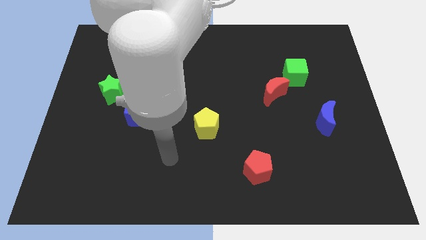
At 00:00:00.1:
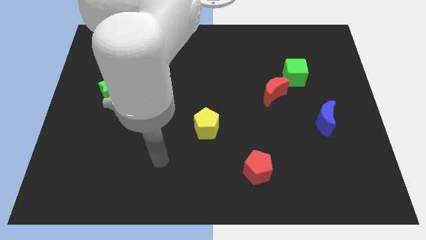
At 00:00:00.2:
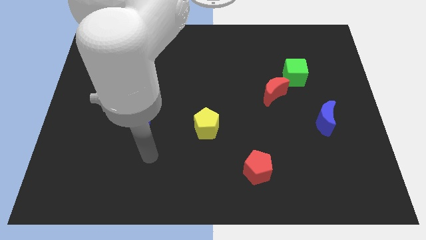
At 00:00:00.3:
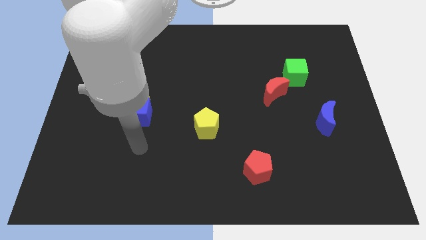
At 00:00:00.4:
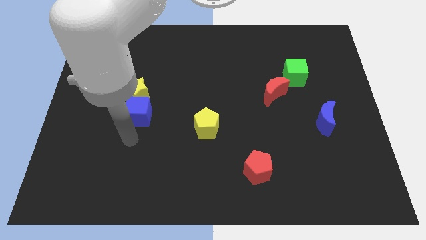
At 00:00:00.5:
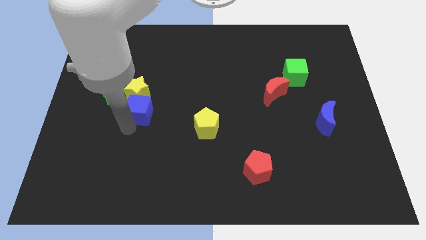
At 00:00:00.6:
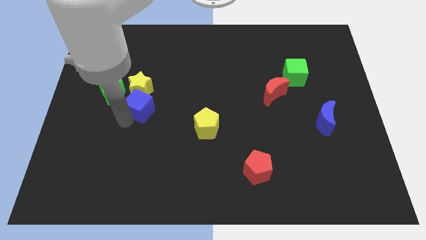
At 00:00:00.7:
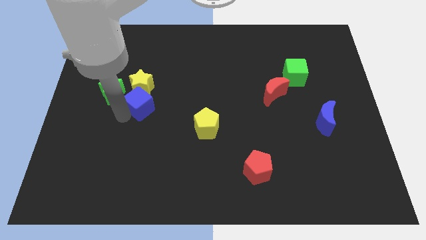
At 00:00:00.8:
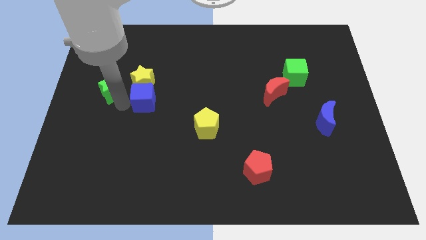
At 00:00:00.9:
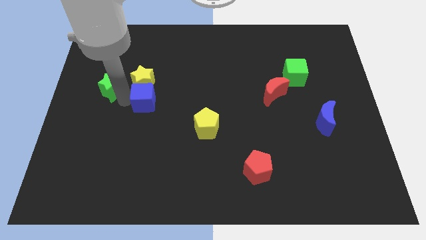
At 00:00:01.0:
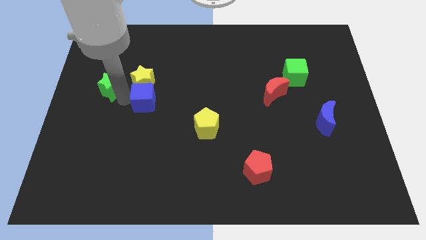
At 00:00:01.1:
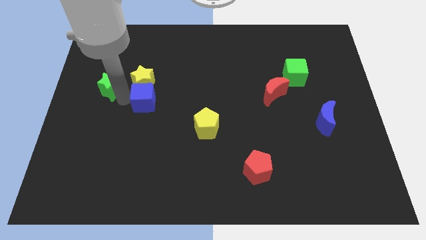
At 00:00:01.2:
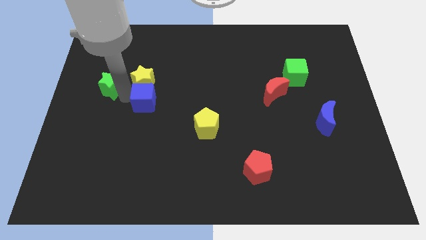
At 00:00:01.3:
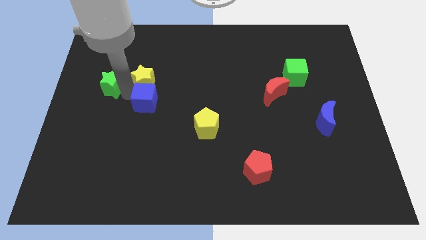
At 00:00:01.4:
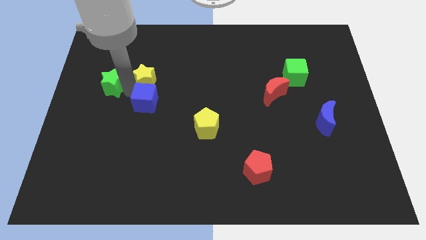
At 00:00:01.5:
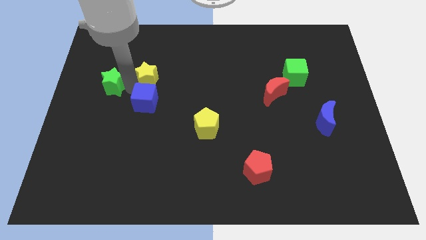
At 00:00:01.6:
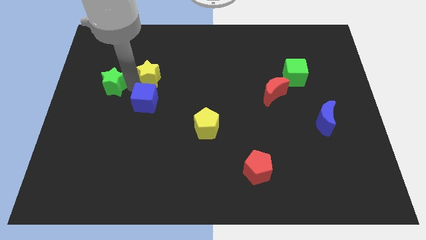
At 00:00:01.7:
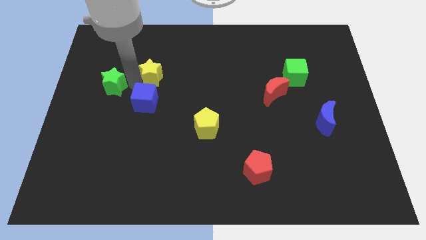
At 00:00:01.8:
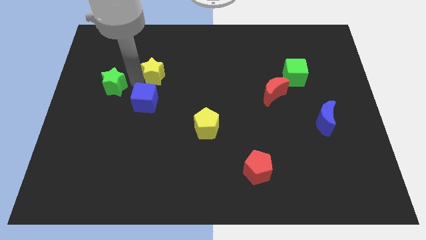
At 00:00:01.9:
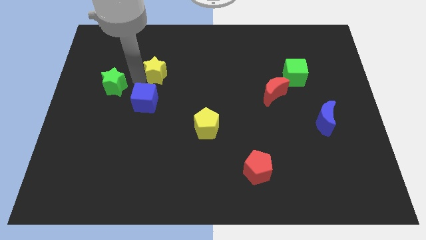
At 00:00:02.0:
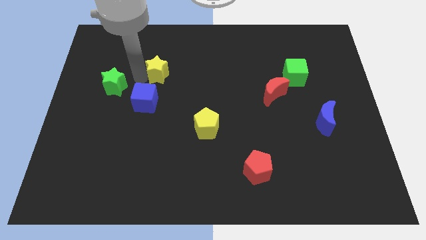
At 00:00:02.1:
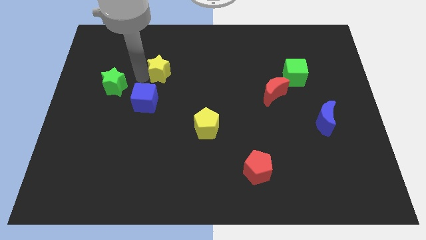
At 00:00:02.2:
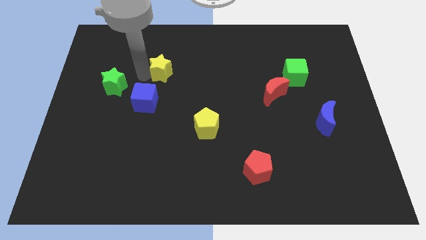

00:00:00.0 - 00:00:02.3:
move the yellow star away from the blue cube and green star

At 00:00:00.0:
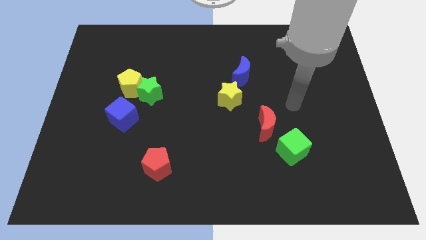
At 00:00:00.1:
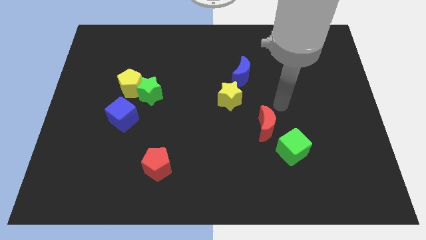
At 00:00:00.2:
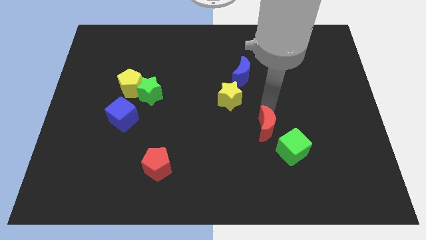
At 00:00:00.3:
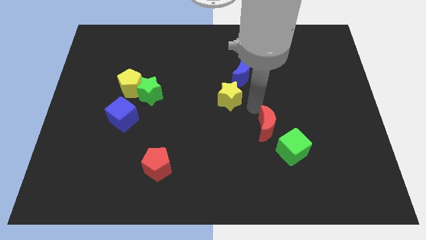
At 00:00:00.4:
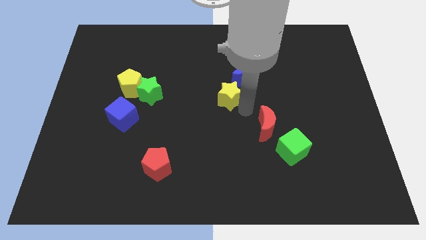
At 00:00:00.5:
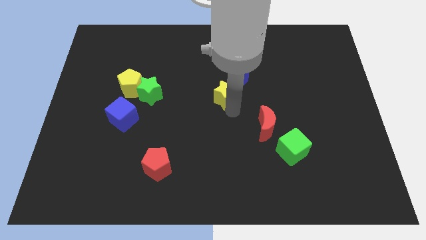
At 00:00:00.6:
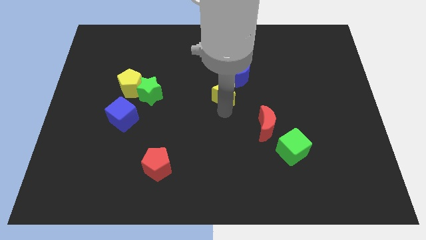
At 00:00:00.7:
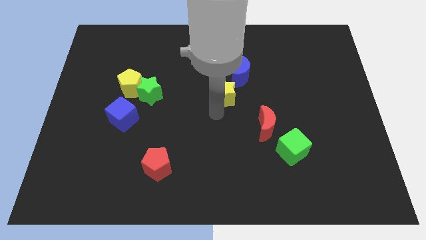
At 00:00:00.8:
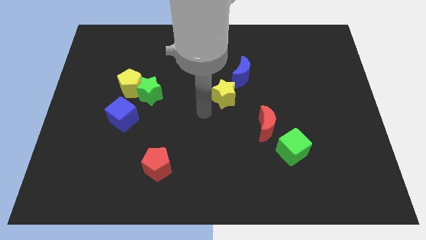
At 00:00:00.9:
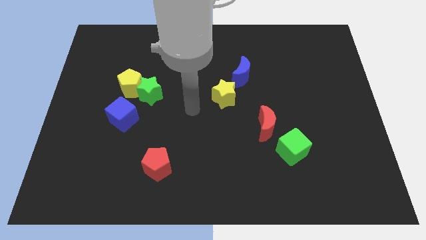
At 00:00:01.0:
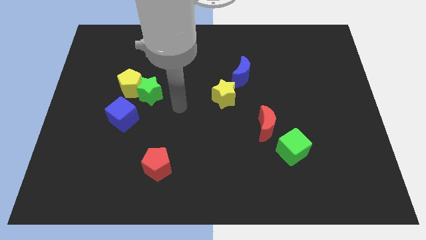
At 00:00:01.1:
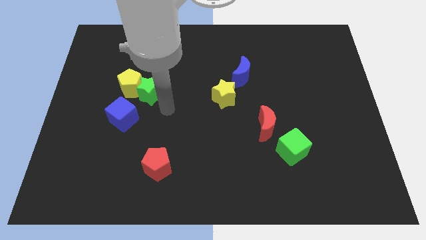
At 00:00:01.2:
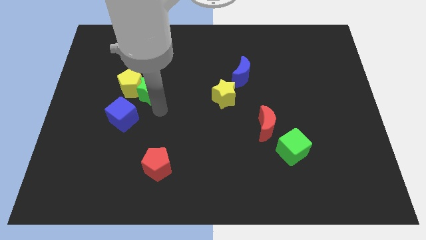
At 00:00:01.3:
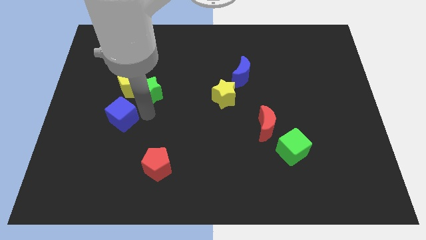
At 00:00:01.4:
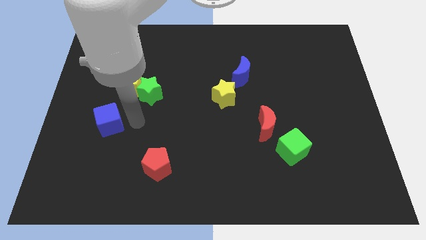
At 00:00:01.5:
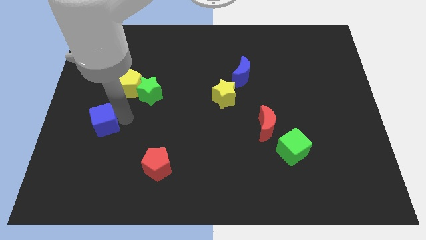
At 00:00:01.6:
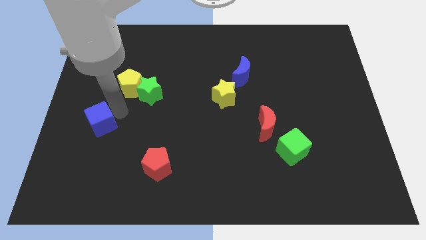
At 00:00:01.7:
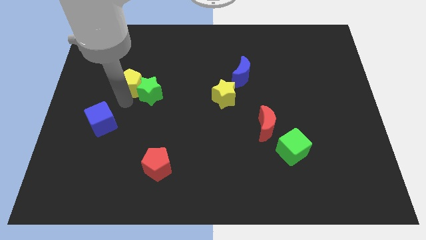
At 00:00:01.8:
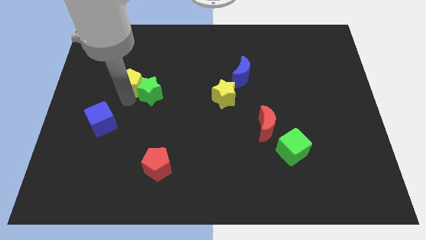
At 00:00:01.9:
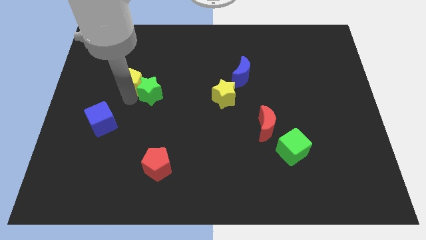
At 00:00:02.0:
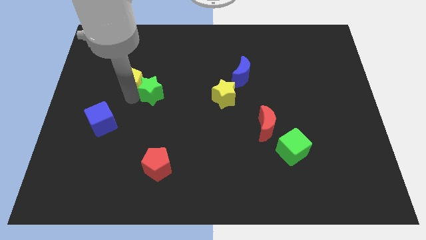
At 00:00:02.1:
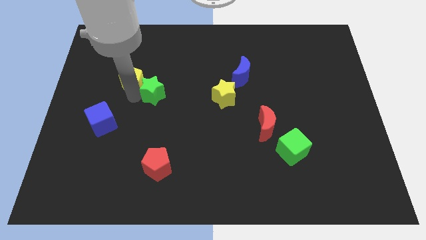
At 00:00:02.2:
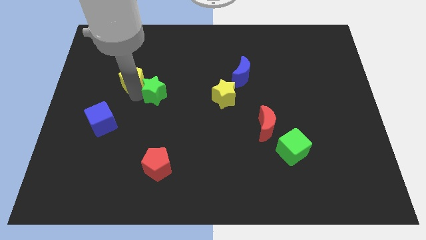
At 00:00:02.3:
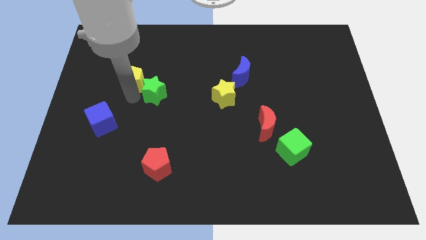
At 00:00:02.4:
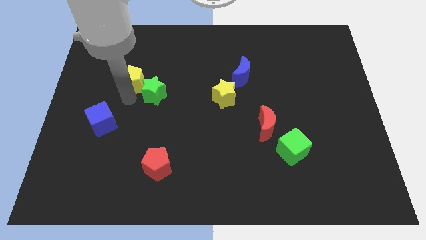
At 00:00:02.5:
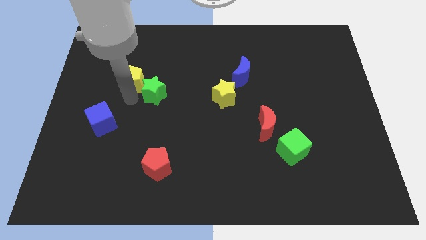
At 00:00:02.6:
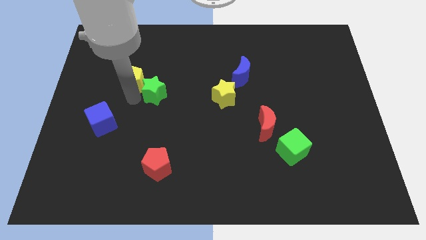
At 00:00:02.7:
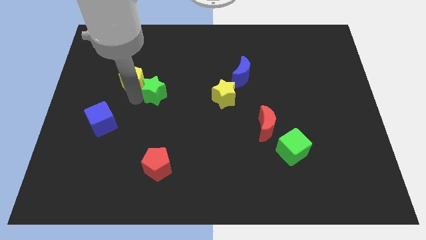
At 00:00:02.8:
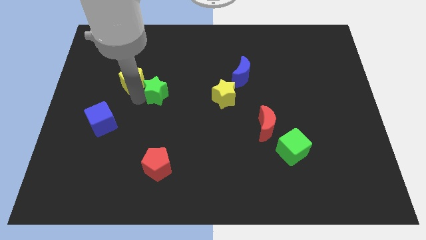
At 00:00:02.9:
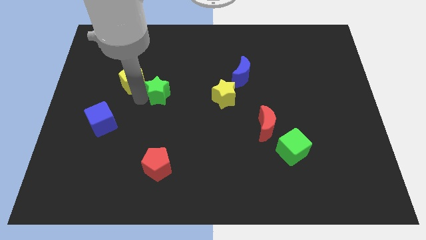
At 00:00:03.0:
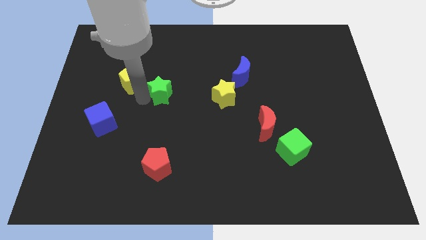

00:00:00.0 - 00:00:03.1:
pull the green star apart from the yellow pentagon and blue cube

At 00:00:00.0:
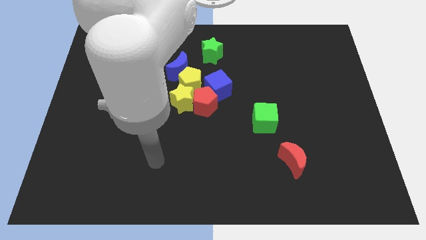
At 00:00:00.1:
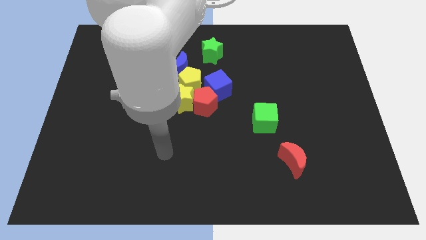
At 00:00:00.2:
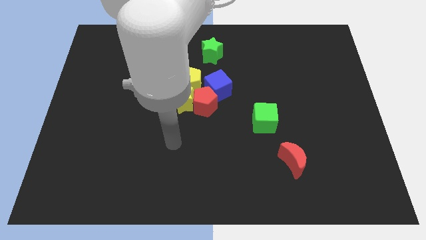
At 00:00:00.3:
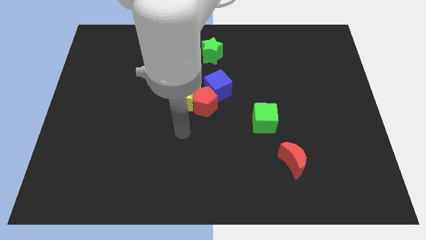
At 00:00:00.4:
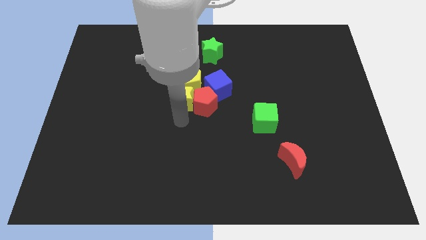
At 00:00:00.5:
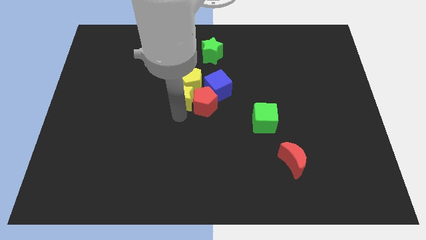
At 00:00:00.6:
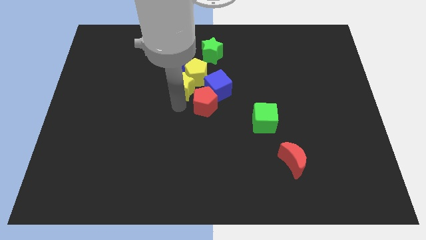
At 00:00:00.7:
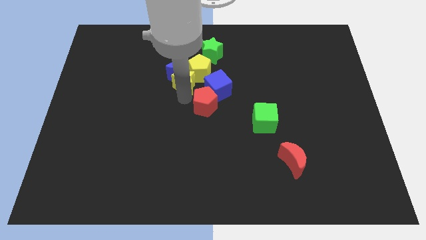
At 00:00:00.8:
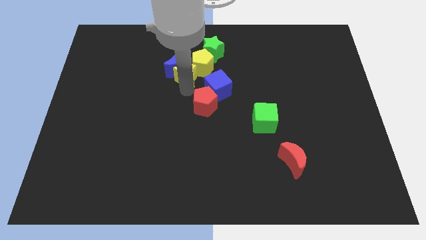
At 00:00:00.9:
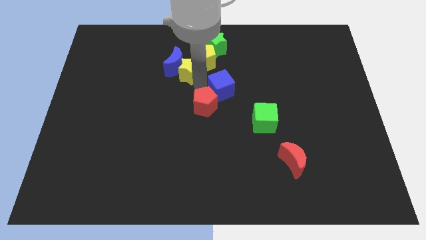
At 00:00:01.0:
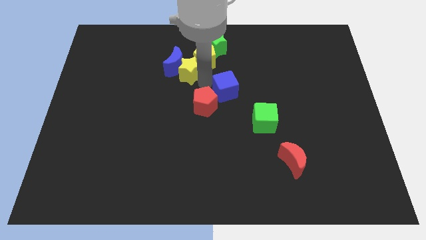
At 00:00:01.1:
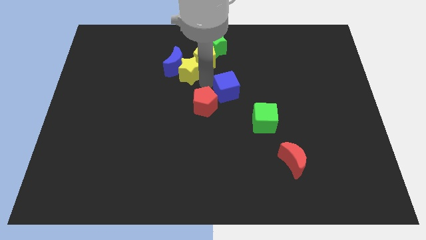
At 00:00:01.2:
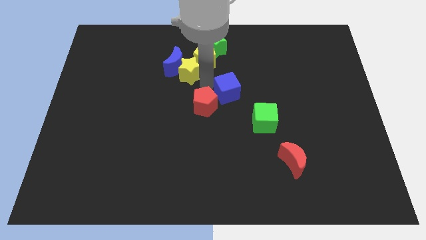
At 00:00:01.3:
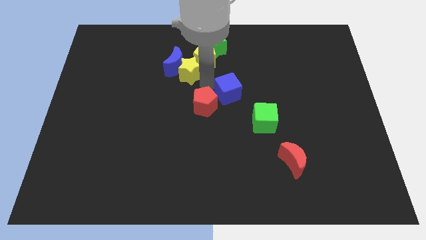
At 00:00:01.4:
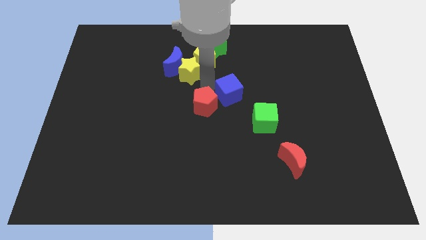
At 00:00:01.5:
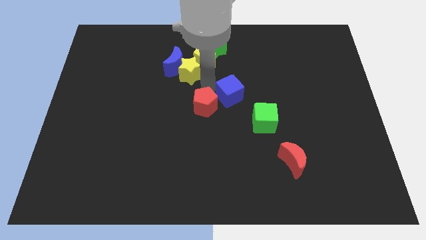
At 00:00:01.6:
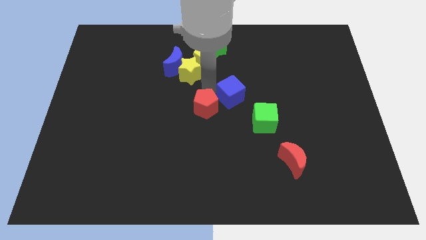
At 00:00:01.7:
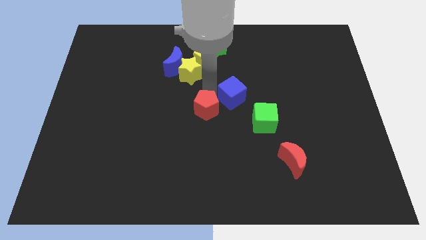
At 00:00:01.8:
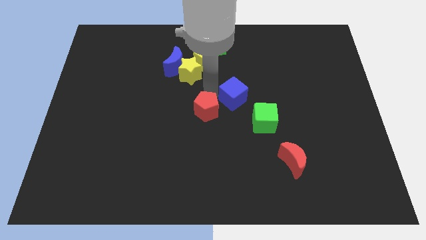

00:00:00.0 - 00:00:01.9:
pull the red pentagon apart from the yellow star, blue cube, and yellow pentagon

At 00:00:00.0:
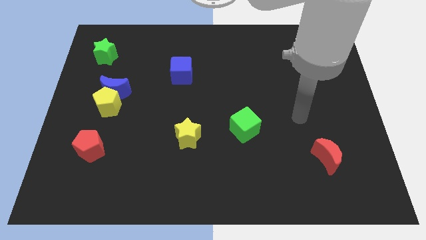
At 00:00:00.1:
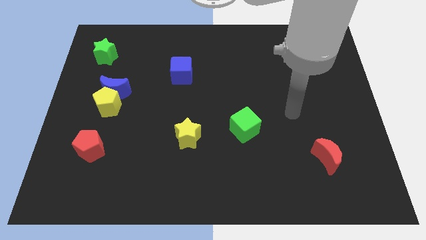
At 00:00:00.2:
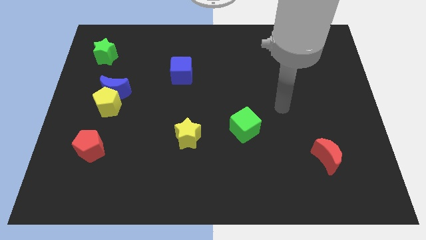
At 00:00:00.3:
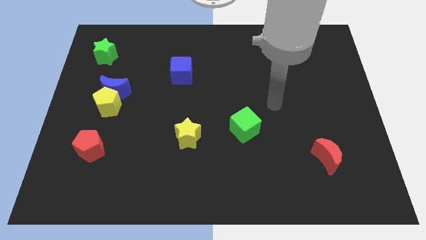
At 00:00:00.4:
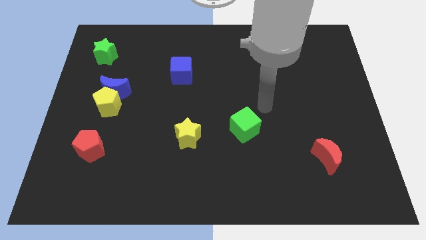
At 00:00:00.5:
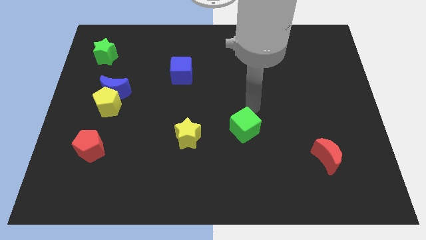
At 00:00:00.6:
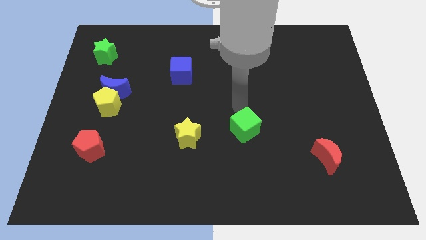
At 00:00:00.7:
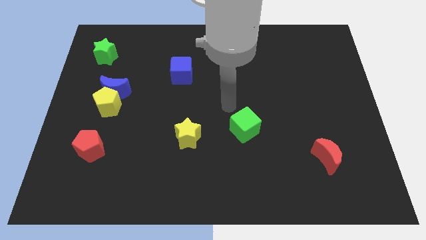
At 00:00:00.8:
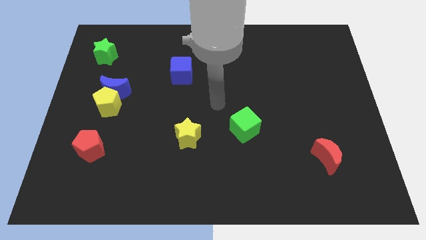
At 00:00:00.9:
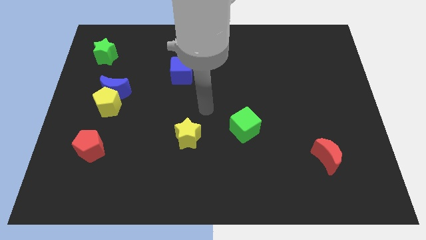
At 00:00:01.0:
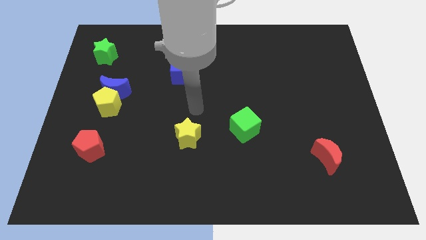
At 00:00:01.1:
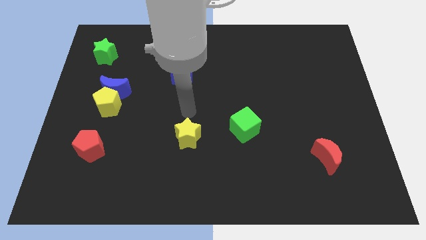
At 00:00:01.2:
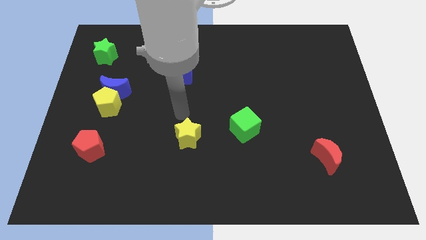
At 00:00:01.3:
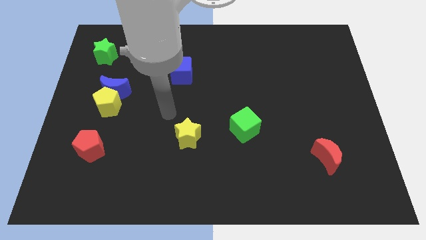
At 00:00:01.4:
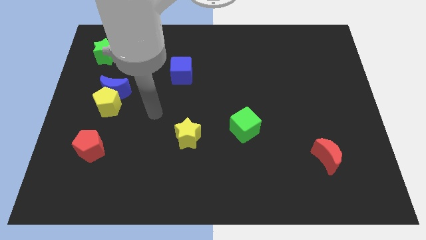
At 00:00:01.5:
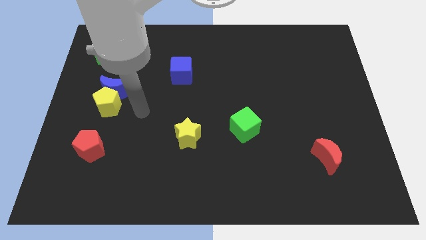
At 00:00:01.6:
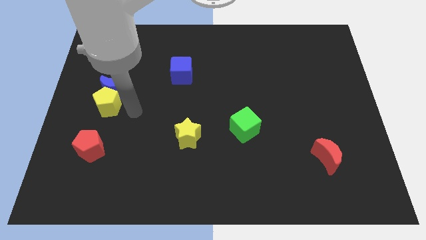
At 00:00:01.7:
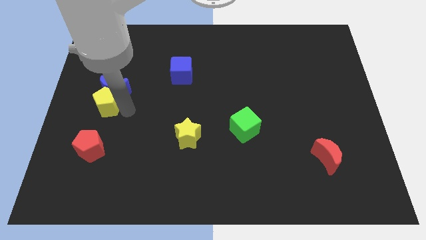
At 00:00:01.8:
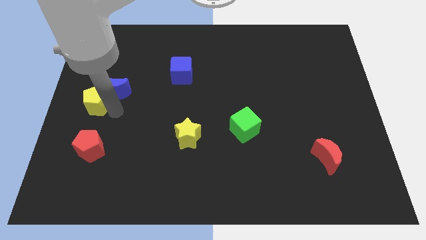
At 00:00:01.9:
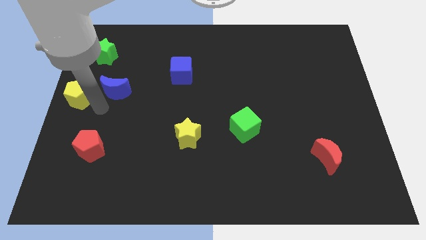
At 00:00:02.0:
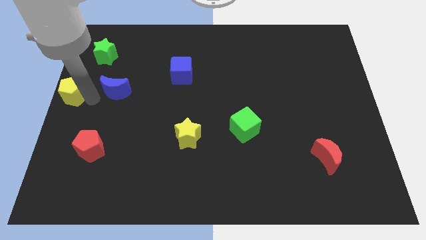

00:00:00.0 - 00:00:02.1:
move the blue moon away from the yellow pentagon
